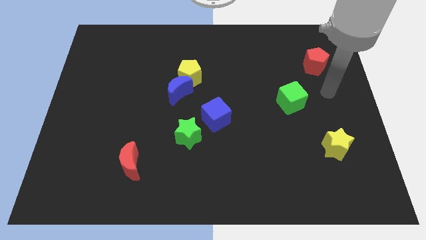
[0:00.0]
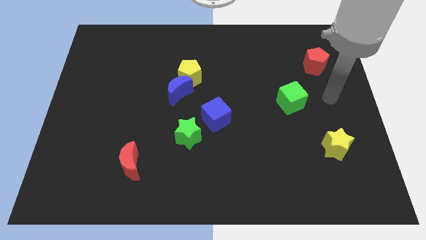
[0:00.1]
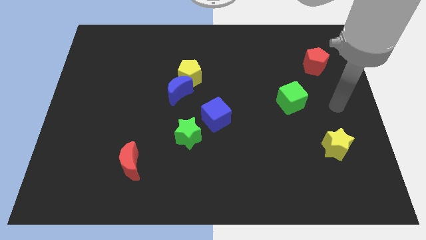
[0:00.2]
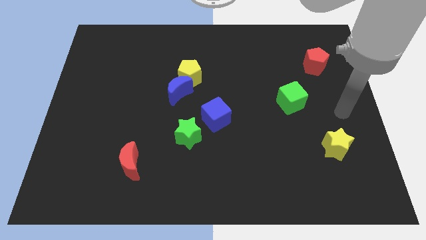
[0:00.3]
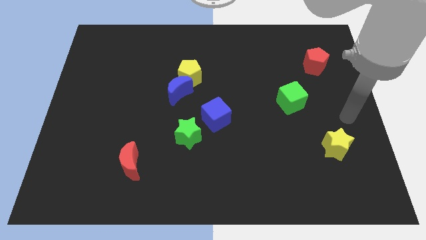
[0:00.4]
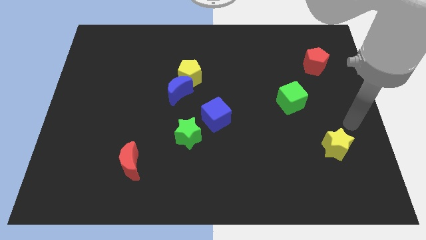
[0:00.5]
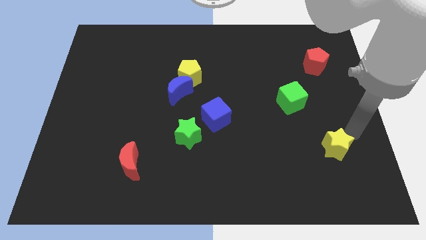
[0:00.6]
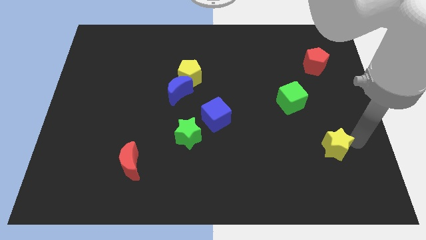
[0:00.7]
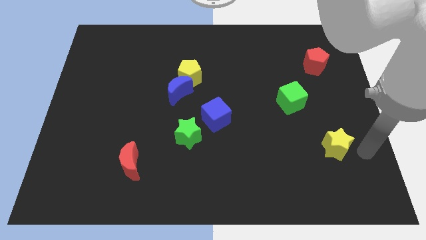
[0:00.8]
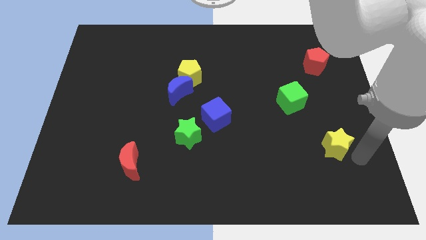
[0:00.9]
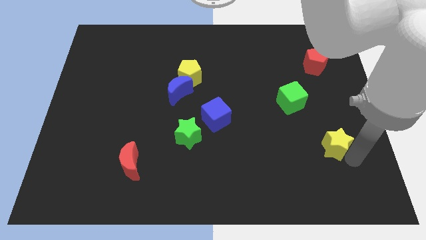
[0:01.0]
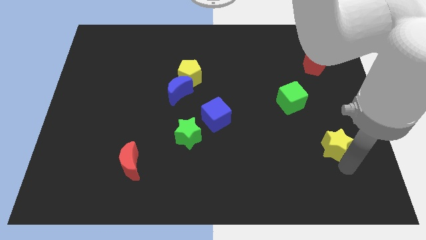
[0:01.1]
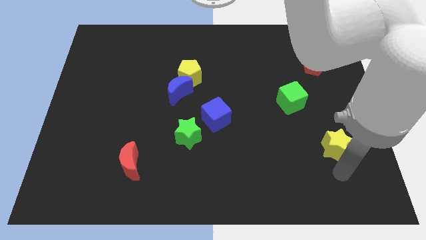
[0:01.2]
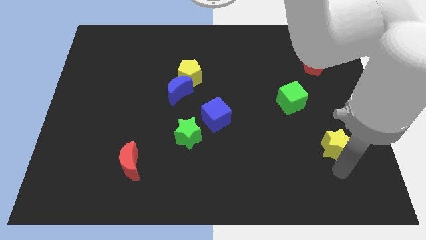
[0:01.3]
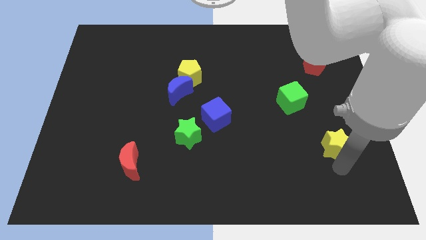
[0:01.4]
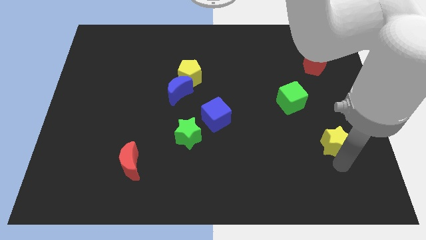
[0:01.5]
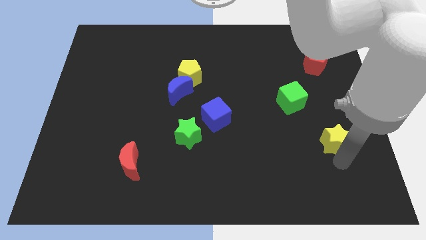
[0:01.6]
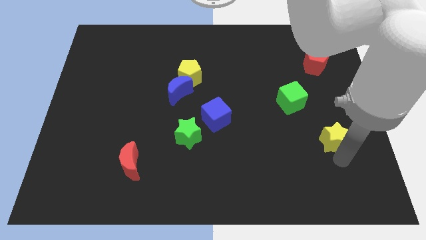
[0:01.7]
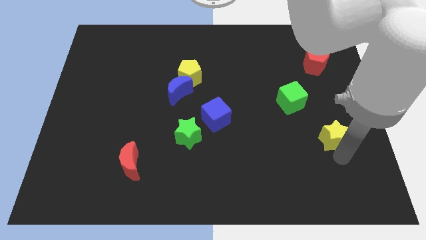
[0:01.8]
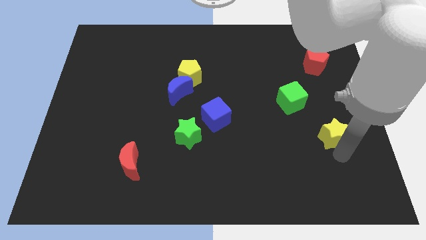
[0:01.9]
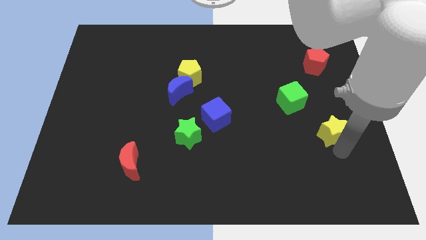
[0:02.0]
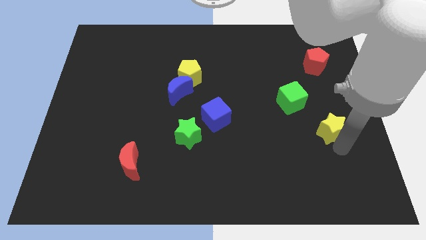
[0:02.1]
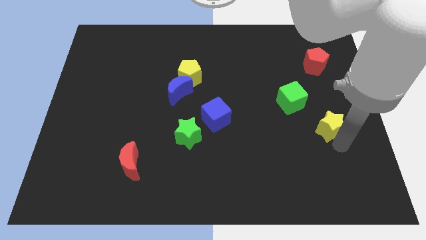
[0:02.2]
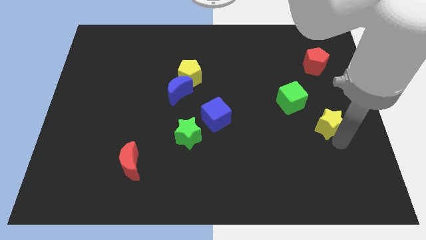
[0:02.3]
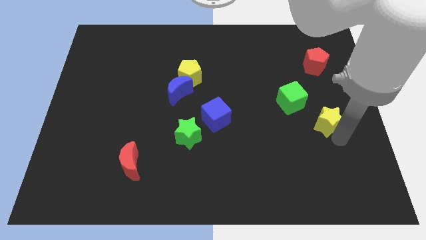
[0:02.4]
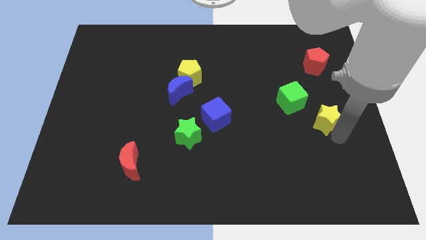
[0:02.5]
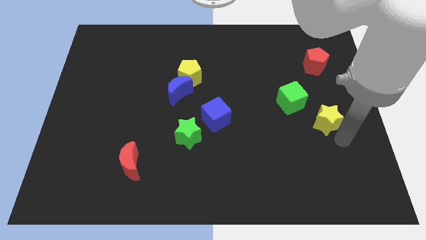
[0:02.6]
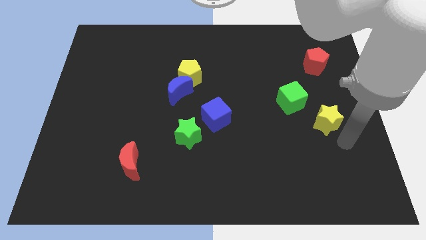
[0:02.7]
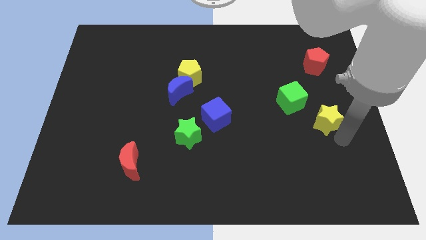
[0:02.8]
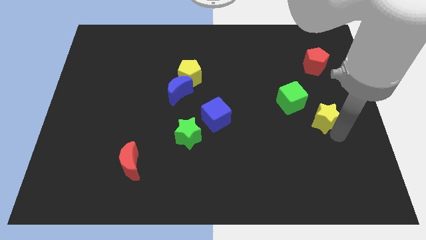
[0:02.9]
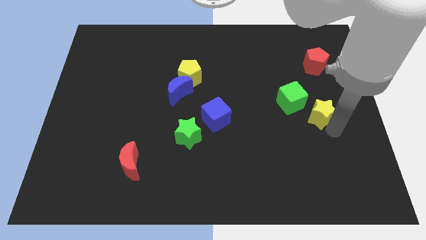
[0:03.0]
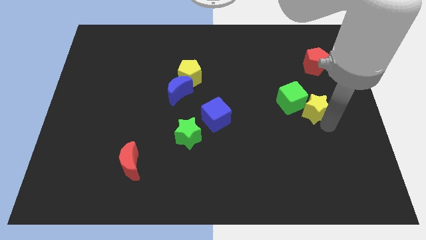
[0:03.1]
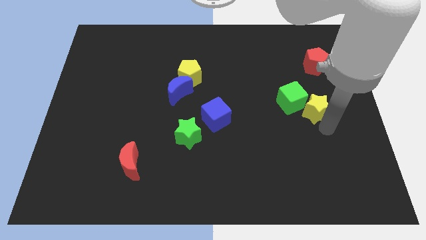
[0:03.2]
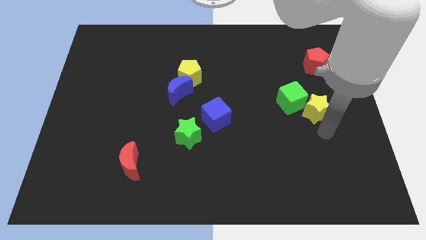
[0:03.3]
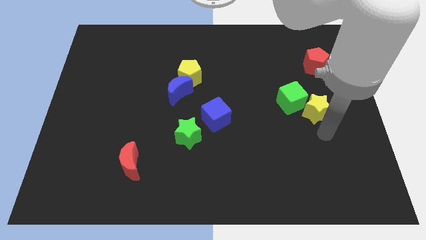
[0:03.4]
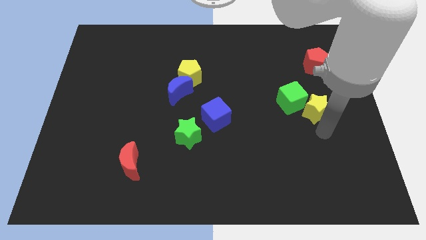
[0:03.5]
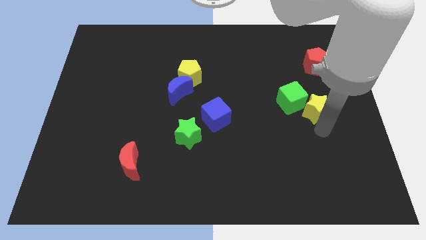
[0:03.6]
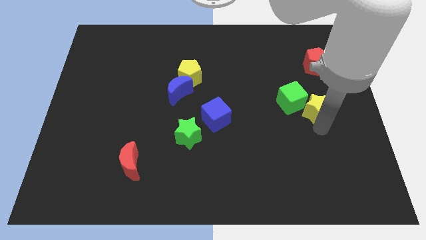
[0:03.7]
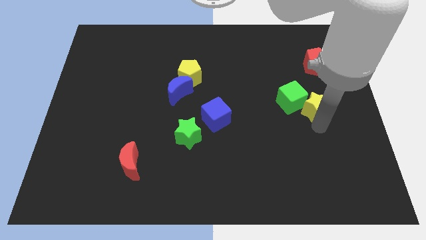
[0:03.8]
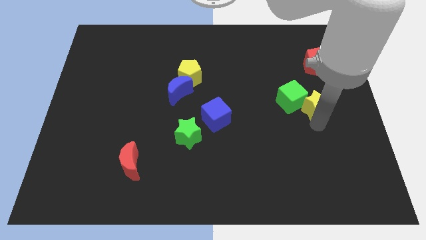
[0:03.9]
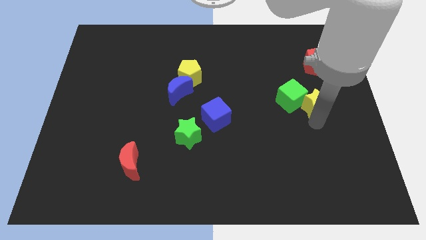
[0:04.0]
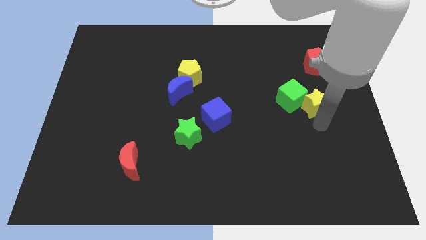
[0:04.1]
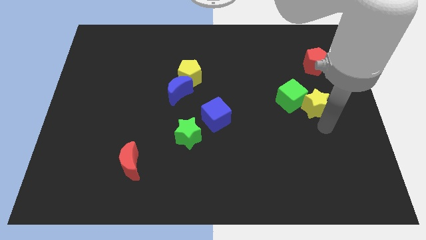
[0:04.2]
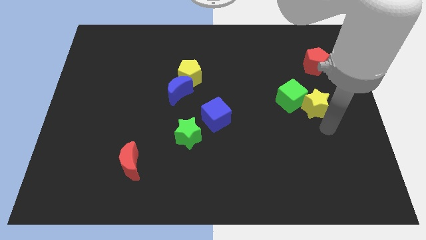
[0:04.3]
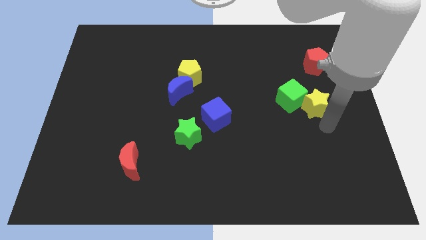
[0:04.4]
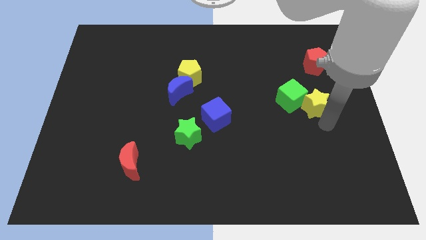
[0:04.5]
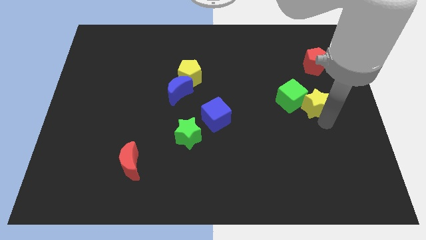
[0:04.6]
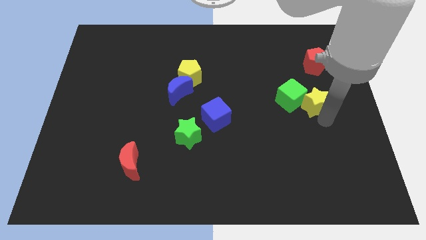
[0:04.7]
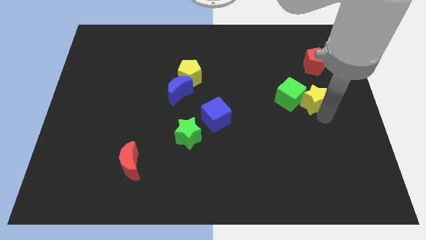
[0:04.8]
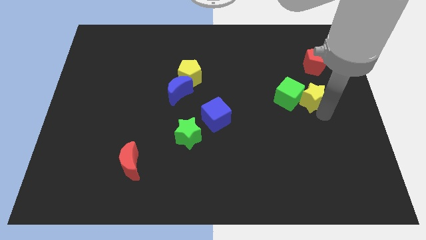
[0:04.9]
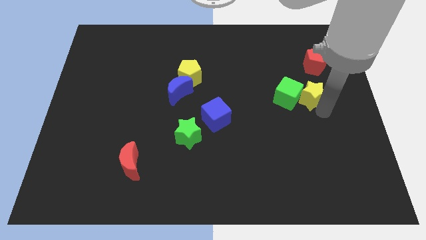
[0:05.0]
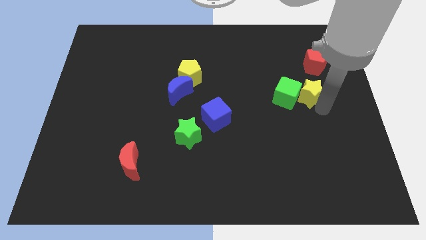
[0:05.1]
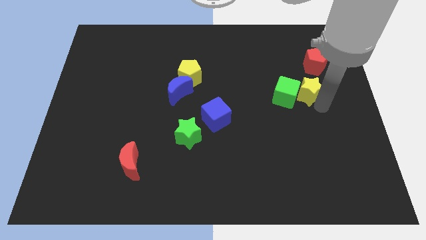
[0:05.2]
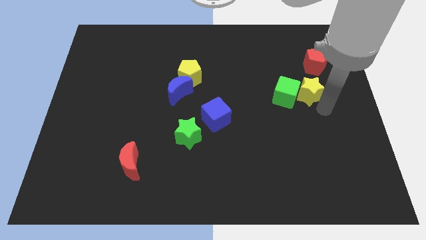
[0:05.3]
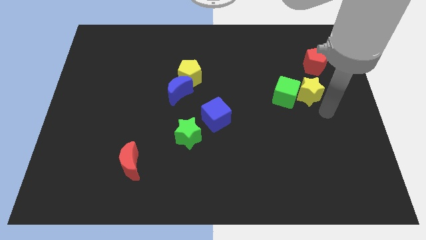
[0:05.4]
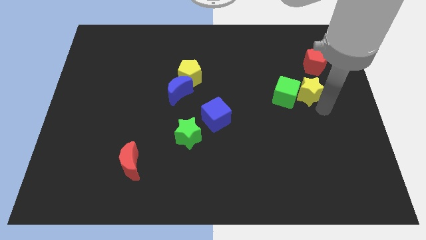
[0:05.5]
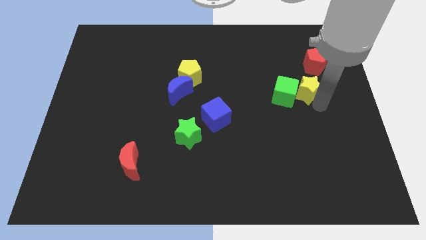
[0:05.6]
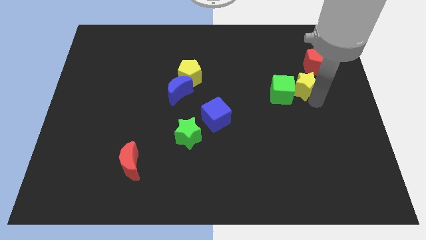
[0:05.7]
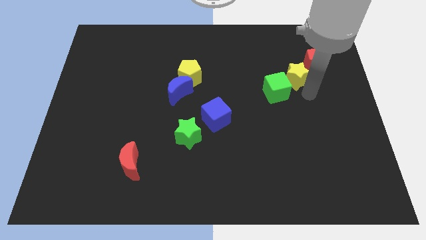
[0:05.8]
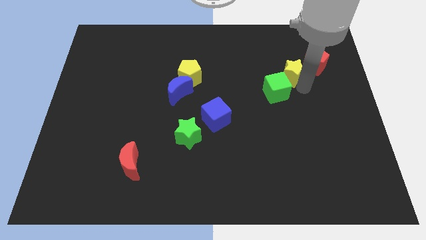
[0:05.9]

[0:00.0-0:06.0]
move the yellow star to the top of the green cube

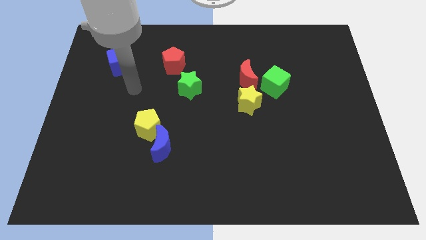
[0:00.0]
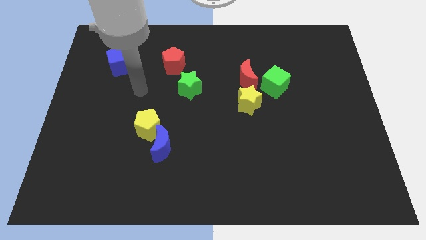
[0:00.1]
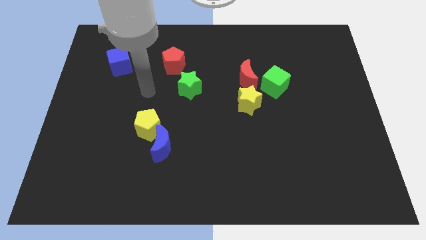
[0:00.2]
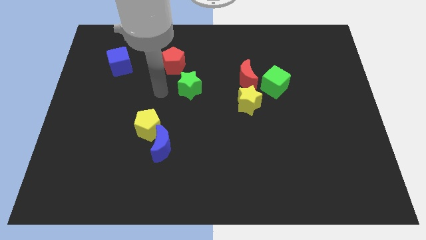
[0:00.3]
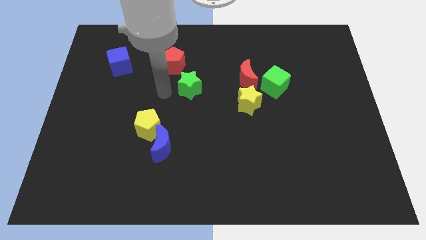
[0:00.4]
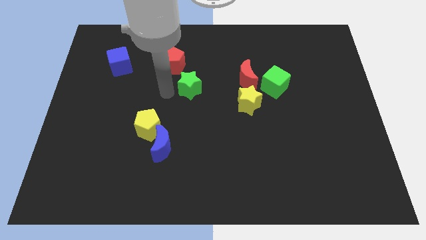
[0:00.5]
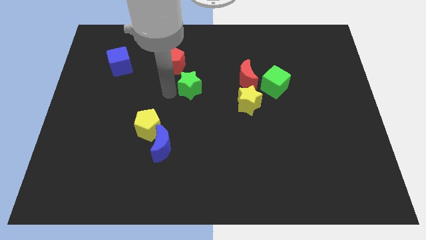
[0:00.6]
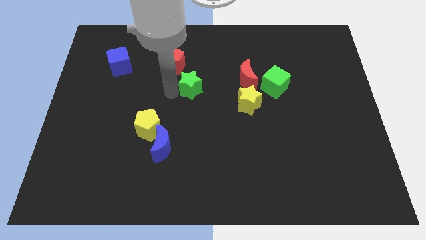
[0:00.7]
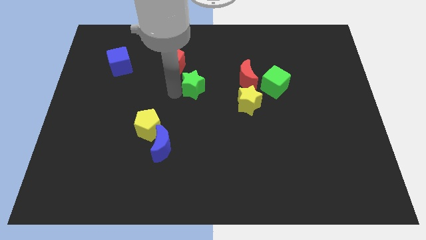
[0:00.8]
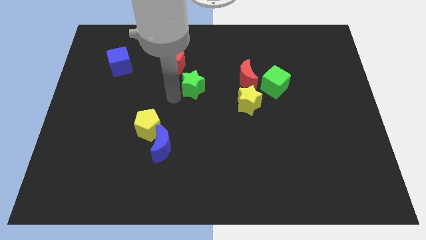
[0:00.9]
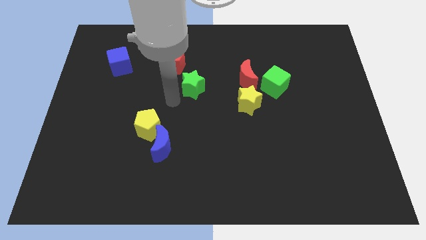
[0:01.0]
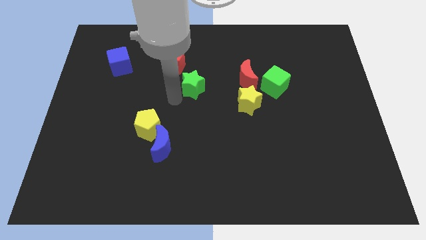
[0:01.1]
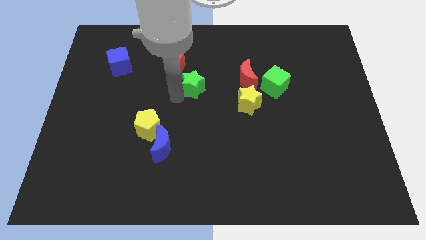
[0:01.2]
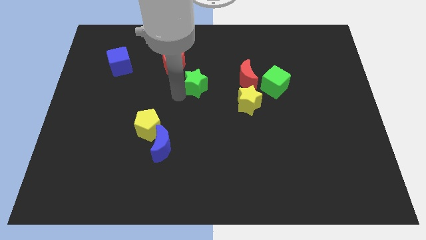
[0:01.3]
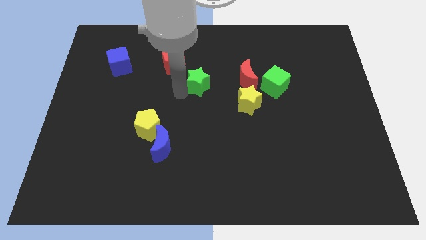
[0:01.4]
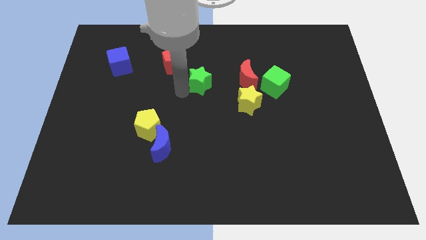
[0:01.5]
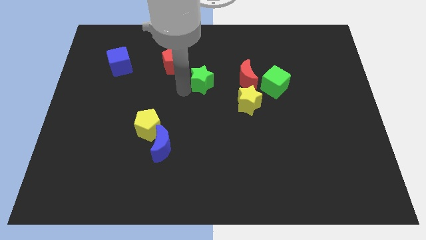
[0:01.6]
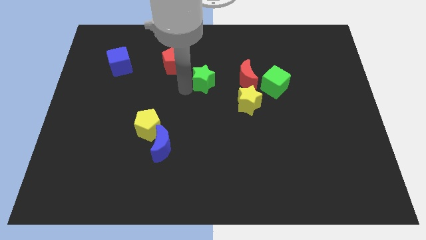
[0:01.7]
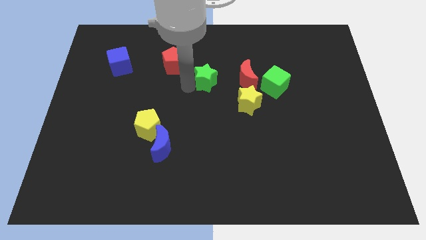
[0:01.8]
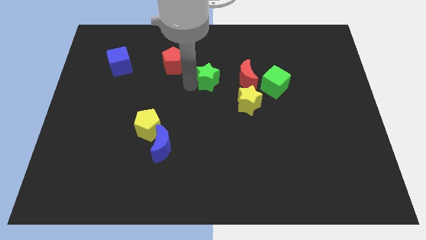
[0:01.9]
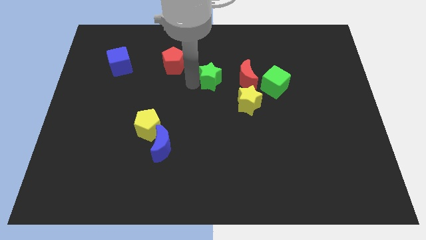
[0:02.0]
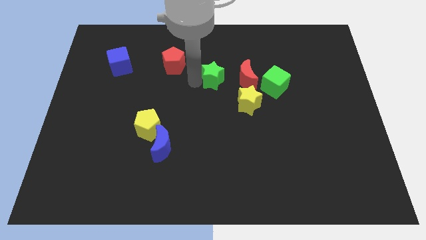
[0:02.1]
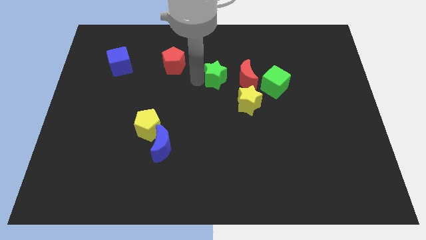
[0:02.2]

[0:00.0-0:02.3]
move the green star to the top left of the red moon
